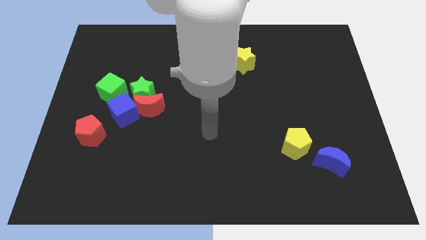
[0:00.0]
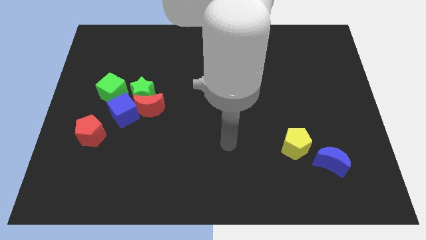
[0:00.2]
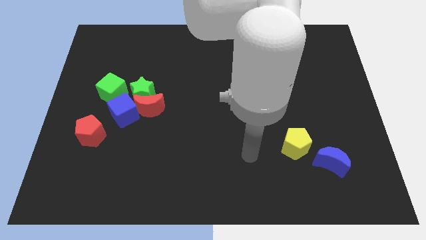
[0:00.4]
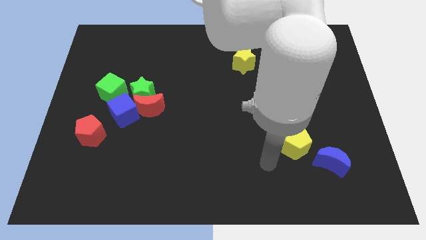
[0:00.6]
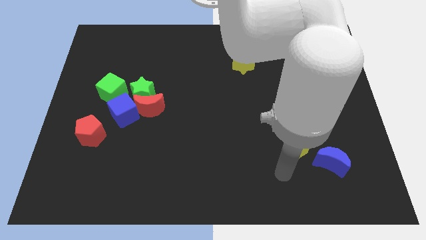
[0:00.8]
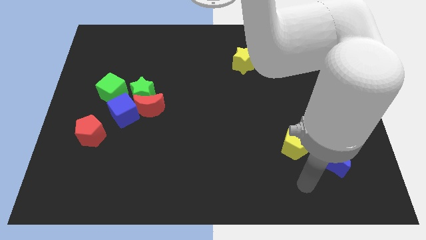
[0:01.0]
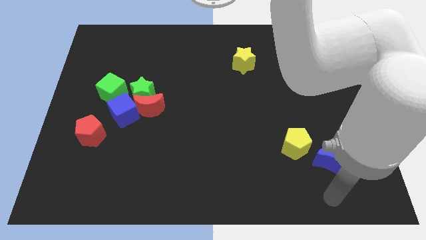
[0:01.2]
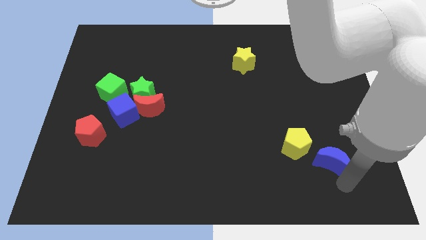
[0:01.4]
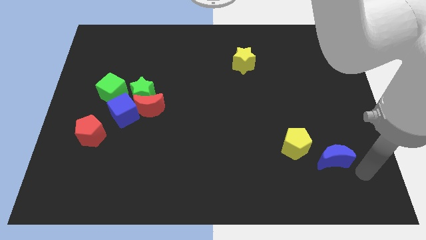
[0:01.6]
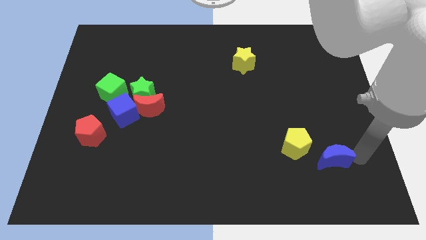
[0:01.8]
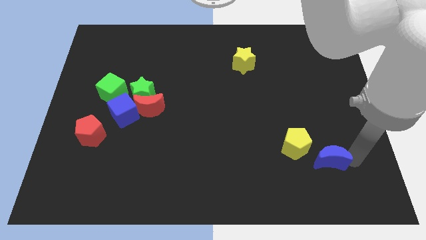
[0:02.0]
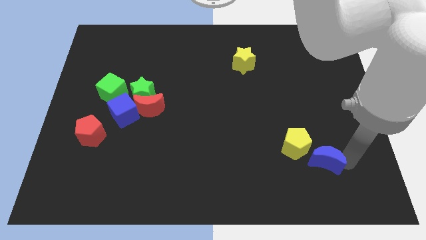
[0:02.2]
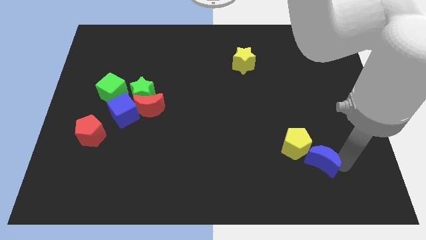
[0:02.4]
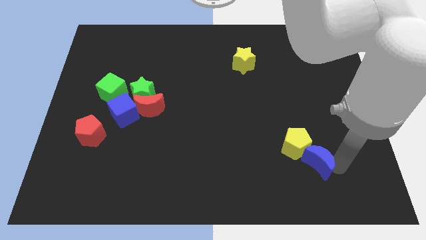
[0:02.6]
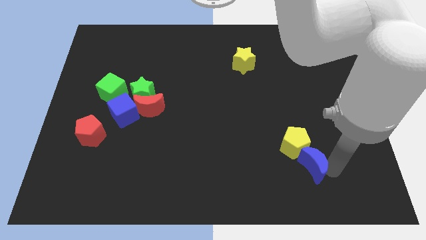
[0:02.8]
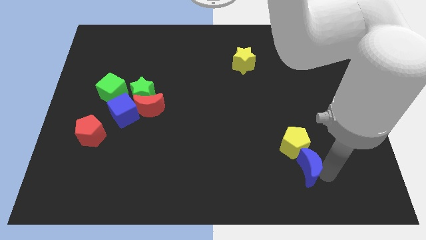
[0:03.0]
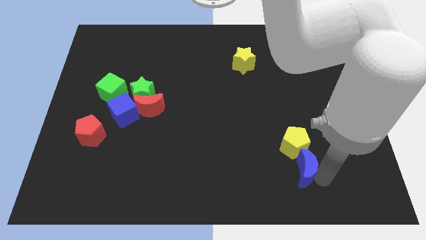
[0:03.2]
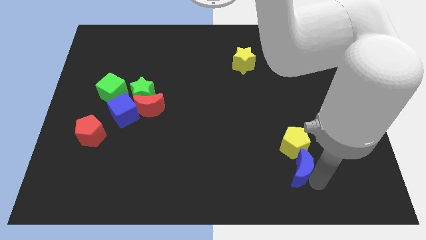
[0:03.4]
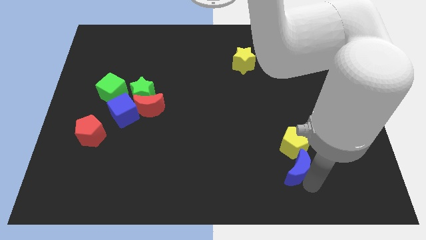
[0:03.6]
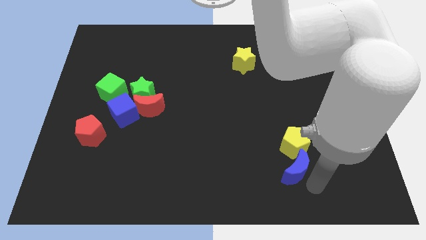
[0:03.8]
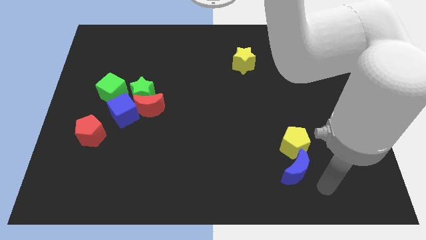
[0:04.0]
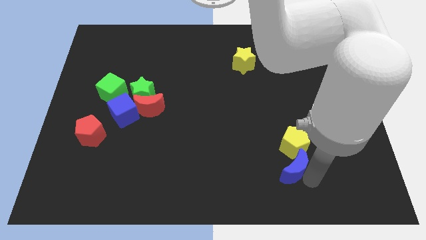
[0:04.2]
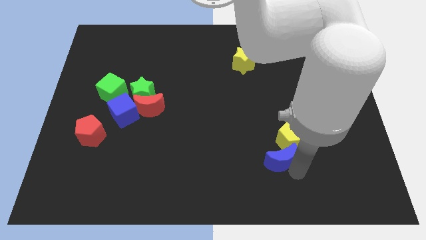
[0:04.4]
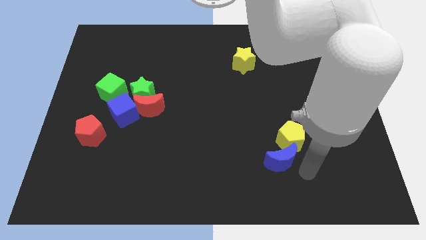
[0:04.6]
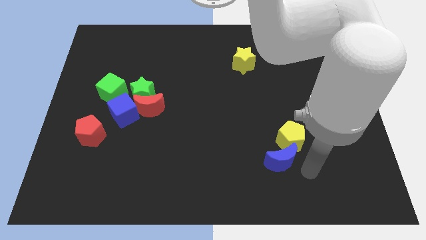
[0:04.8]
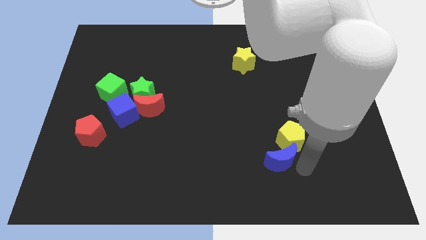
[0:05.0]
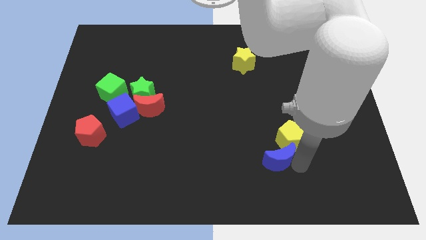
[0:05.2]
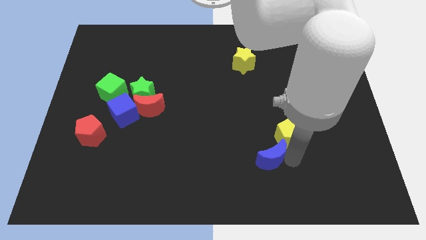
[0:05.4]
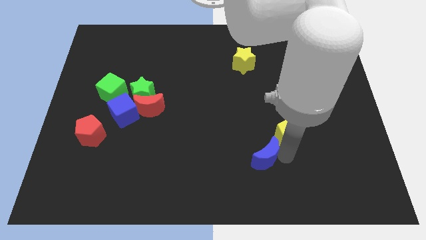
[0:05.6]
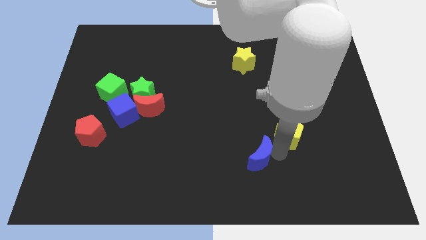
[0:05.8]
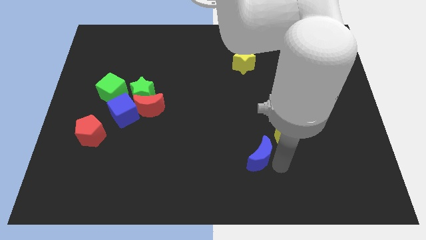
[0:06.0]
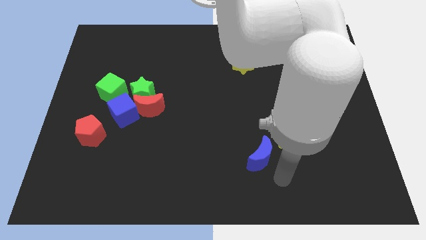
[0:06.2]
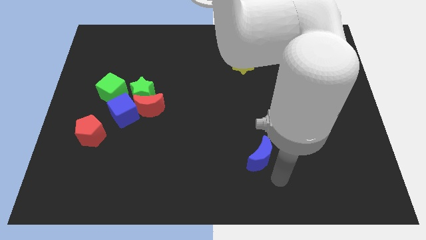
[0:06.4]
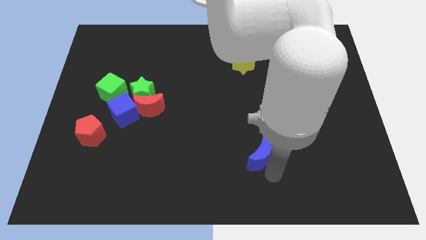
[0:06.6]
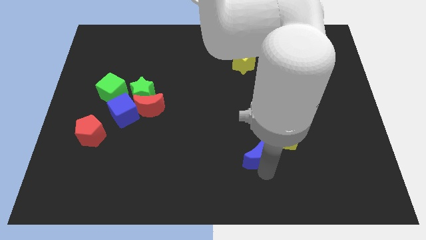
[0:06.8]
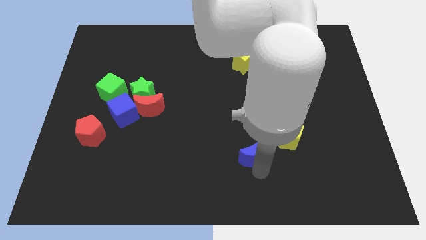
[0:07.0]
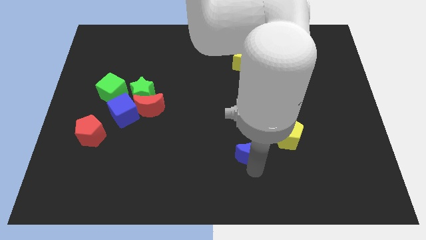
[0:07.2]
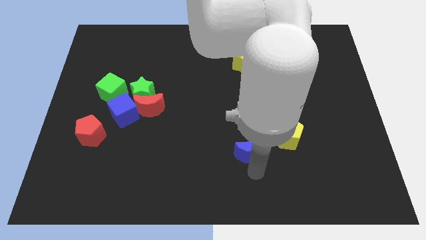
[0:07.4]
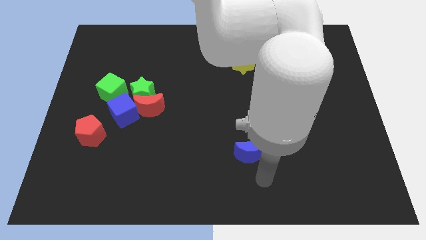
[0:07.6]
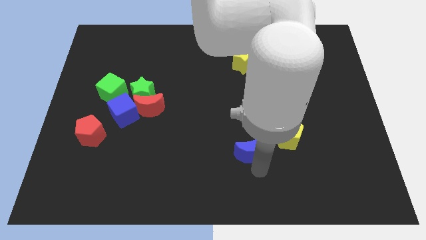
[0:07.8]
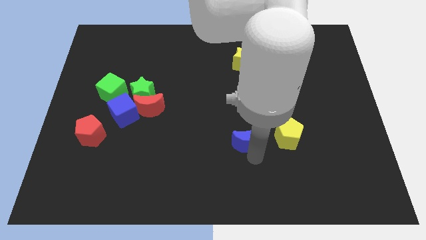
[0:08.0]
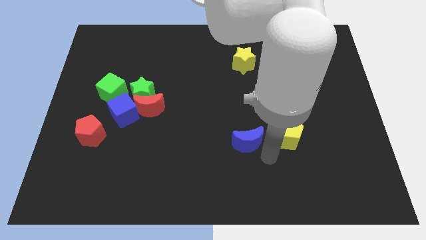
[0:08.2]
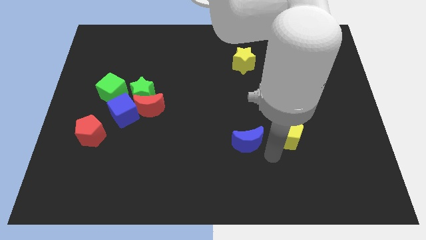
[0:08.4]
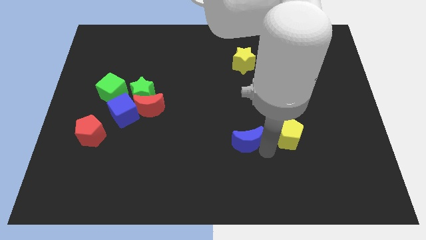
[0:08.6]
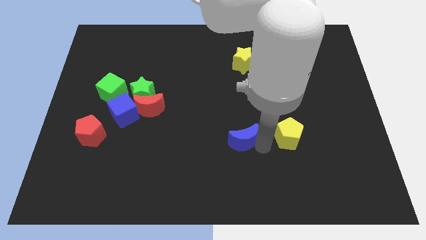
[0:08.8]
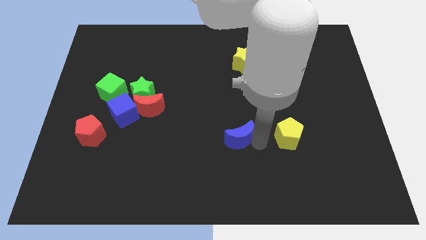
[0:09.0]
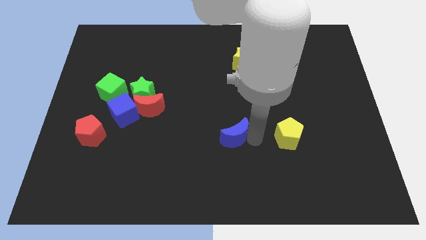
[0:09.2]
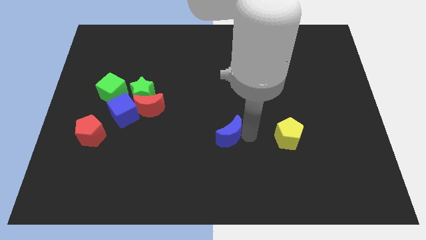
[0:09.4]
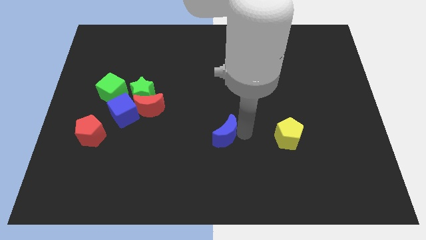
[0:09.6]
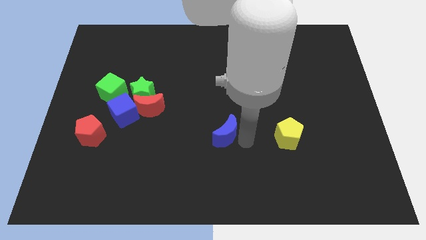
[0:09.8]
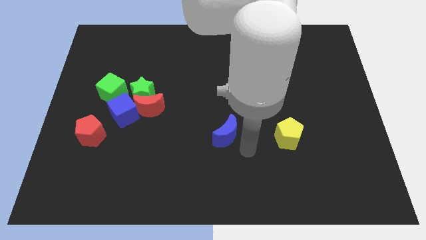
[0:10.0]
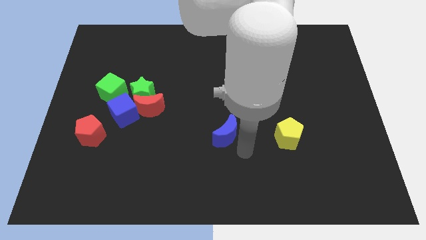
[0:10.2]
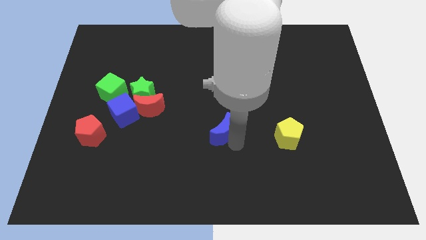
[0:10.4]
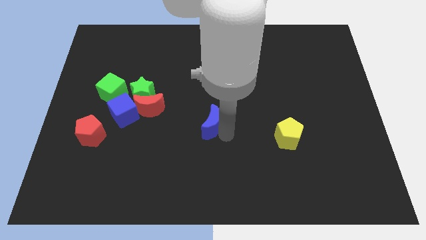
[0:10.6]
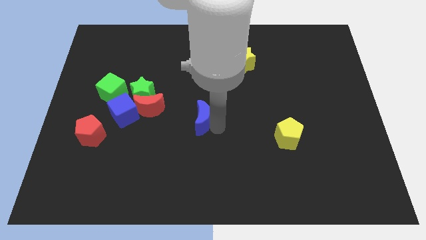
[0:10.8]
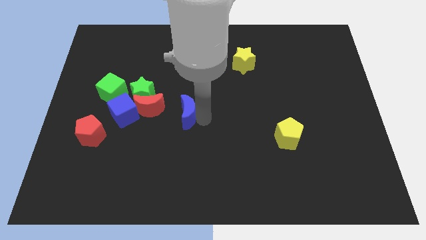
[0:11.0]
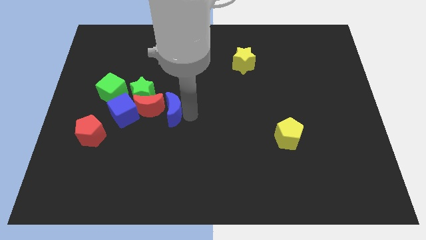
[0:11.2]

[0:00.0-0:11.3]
put the blue moon to the red moon
